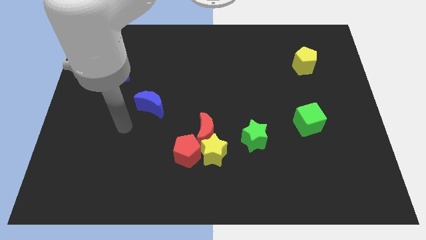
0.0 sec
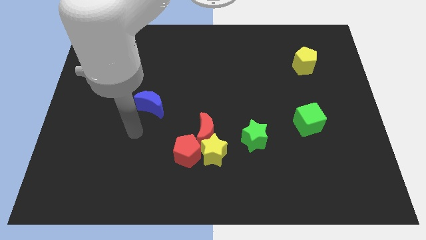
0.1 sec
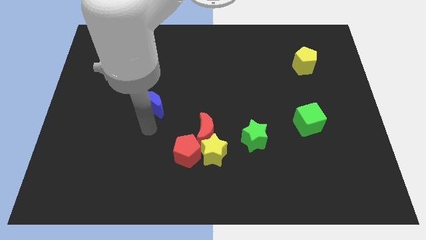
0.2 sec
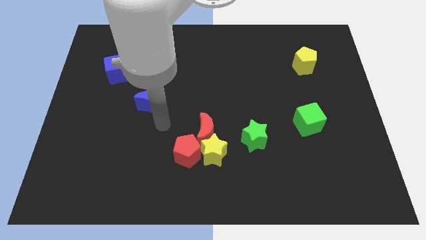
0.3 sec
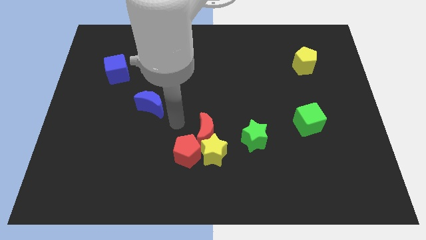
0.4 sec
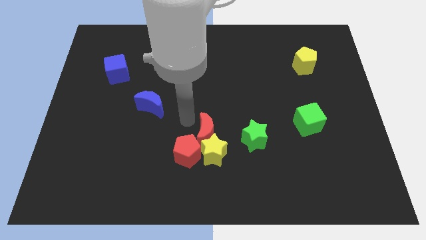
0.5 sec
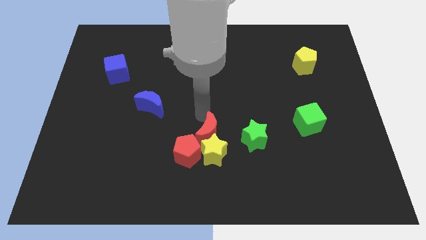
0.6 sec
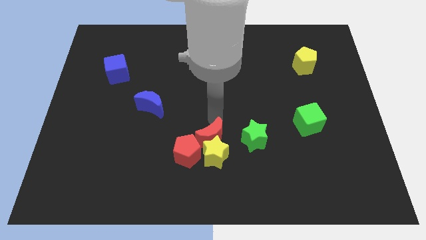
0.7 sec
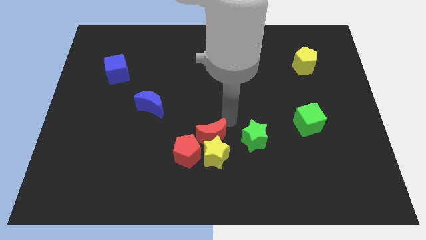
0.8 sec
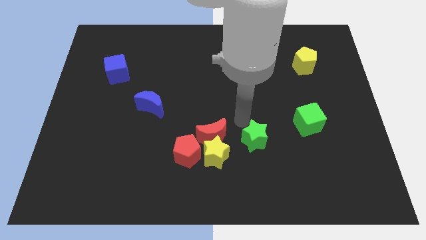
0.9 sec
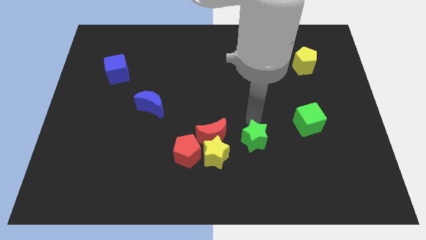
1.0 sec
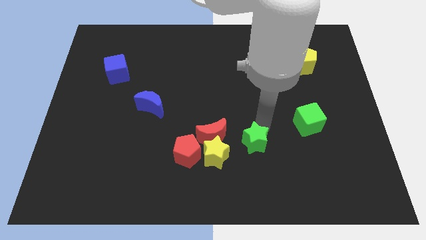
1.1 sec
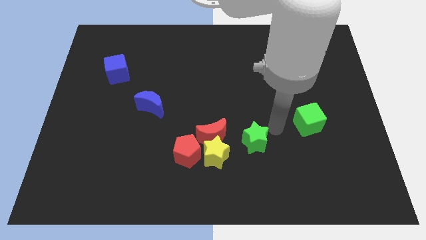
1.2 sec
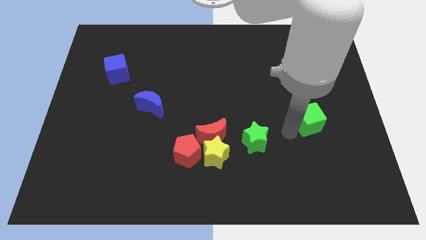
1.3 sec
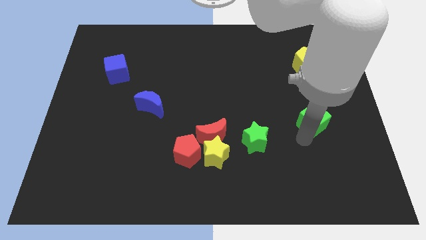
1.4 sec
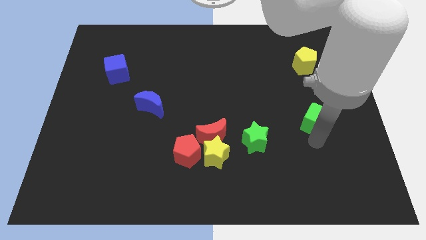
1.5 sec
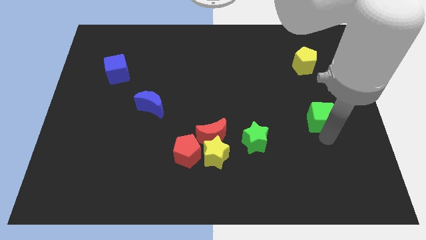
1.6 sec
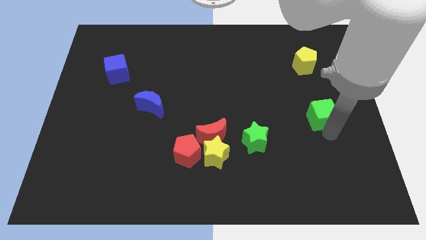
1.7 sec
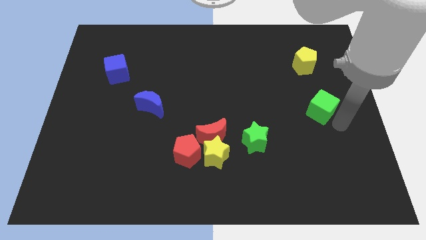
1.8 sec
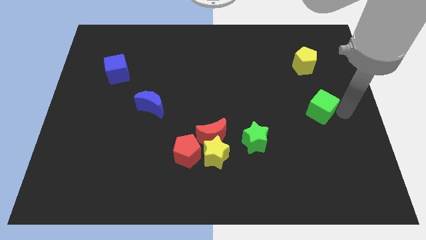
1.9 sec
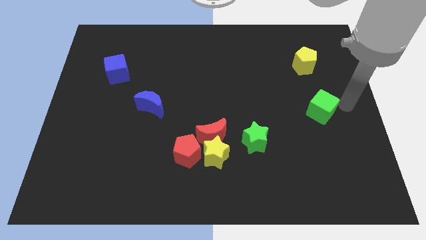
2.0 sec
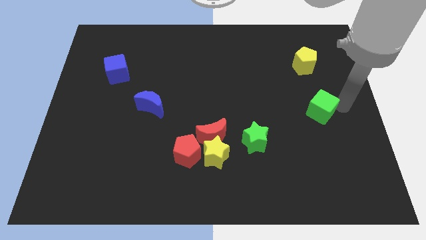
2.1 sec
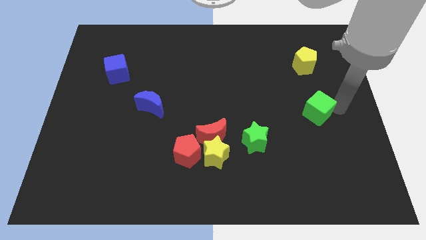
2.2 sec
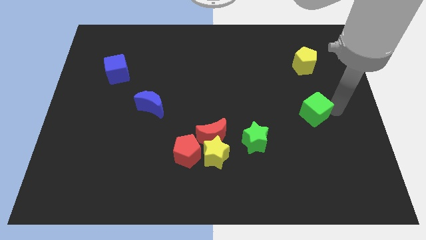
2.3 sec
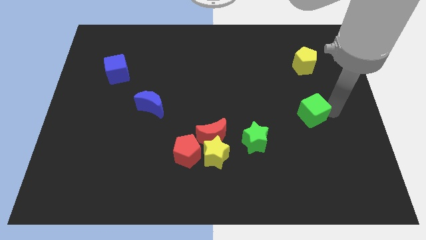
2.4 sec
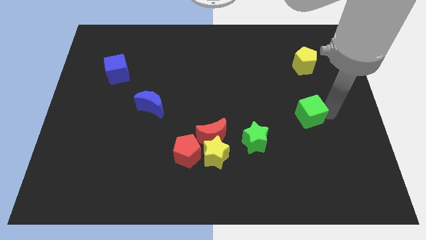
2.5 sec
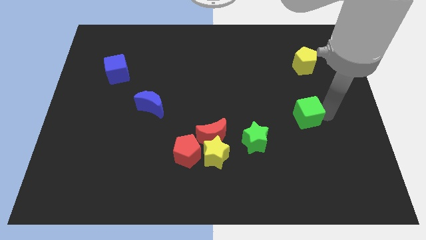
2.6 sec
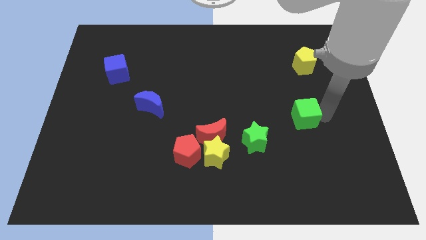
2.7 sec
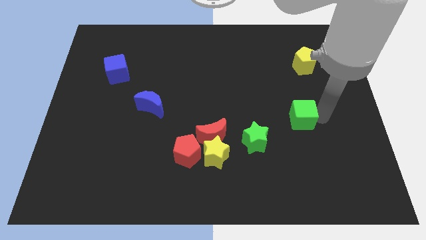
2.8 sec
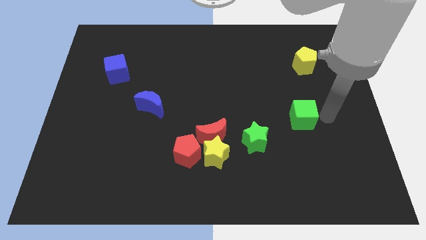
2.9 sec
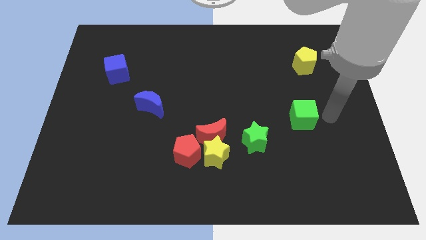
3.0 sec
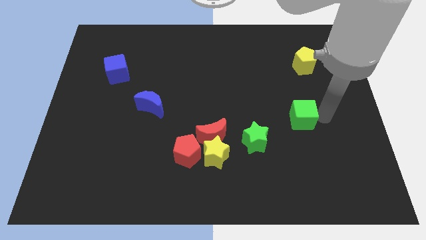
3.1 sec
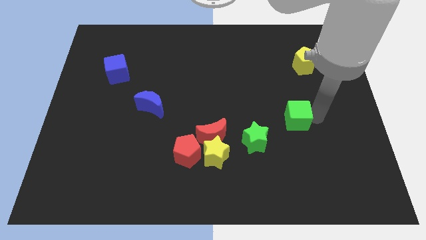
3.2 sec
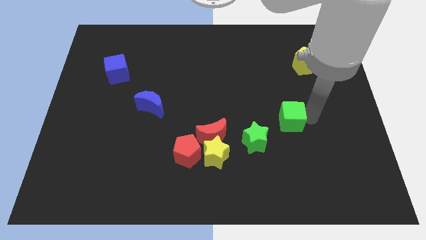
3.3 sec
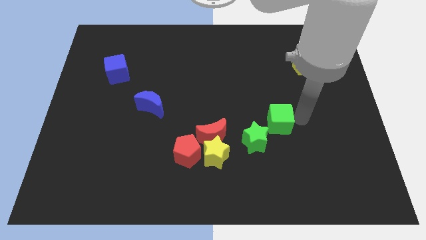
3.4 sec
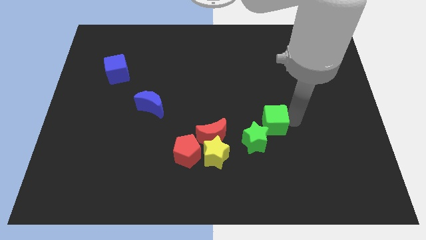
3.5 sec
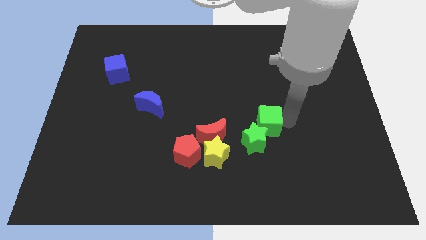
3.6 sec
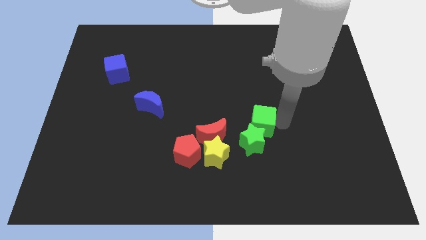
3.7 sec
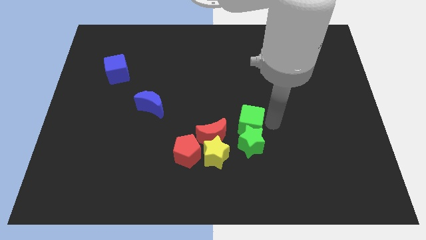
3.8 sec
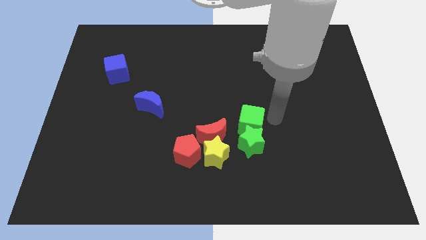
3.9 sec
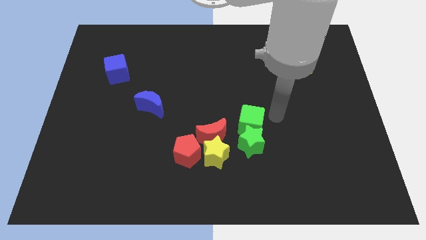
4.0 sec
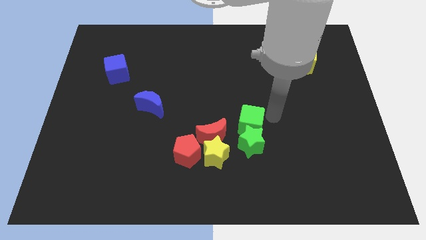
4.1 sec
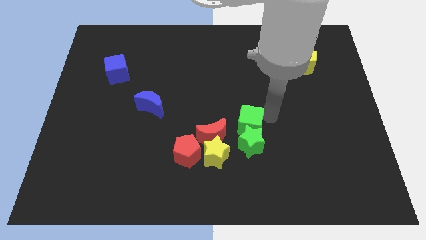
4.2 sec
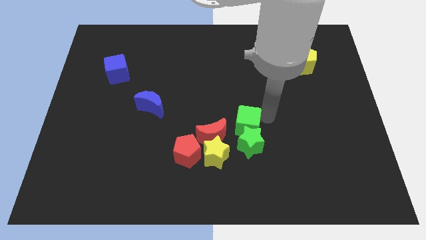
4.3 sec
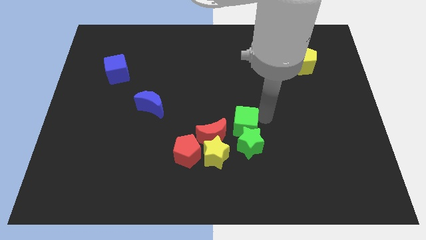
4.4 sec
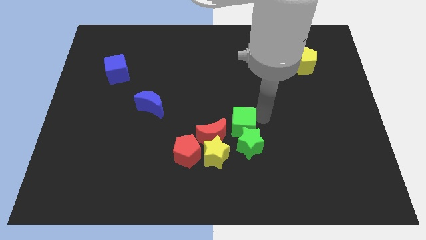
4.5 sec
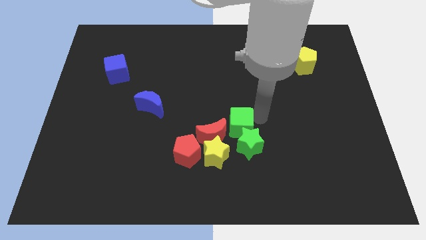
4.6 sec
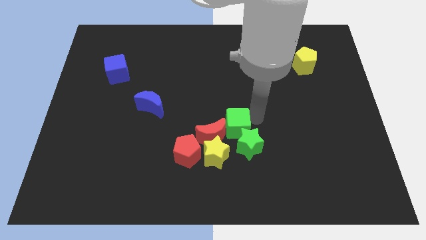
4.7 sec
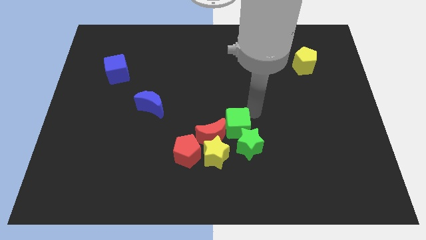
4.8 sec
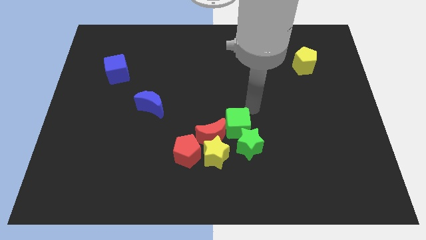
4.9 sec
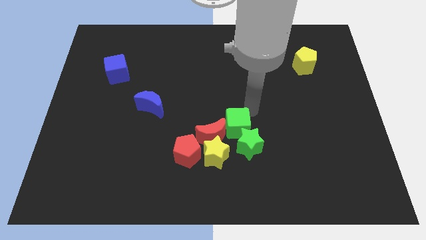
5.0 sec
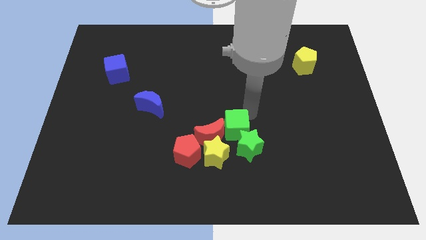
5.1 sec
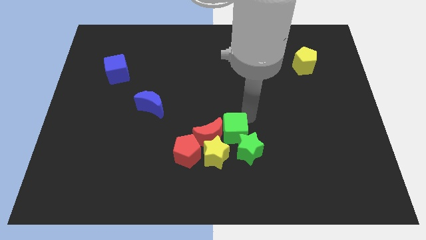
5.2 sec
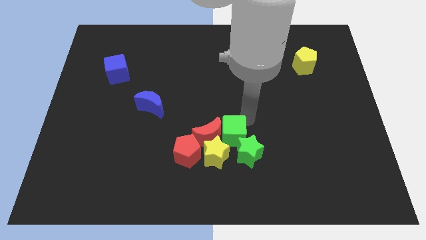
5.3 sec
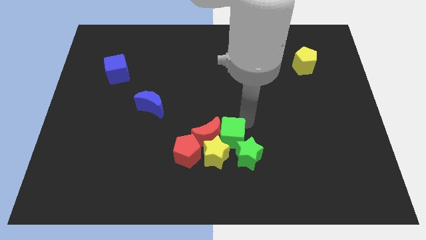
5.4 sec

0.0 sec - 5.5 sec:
push the green cube to the yellow star
